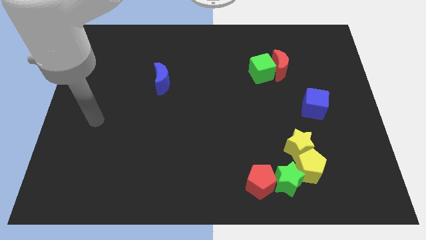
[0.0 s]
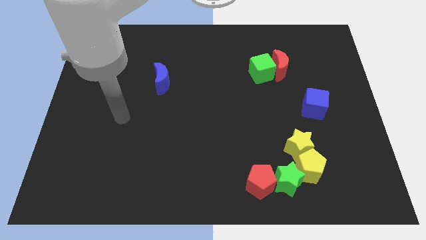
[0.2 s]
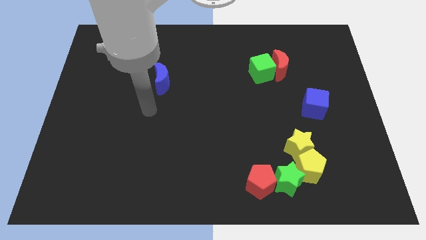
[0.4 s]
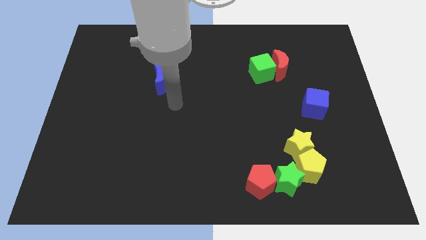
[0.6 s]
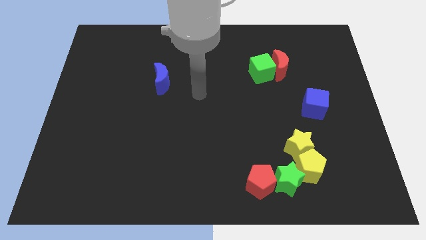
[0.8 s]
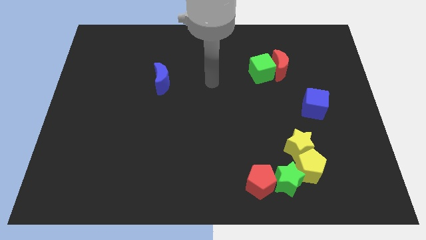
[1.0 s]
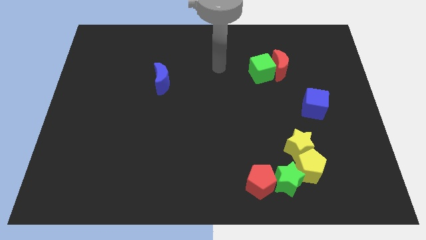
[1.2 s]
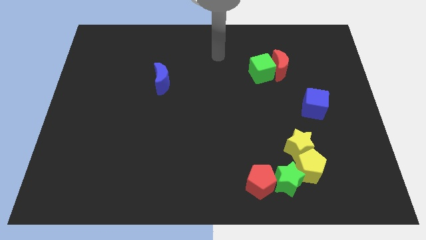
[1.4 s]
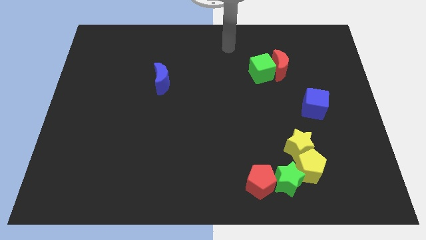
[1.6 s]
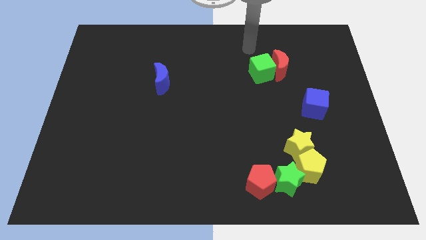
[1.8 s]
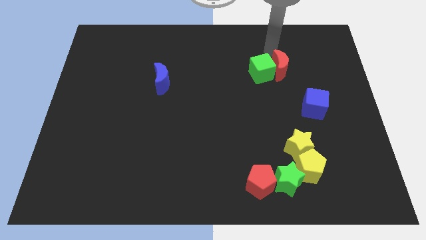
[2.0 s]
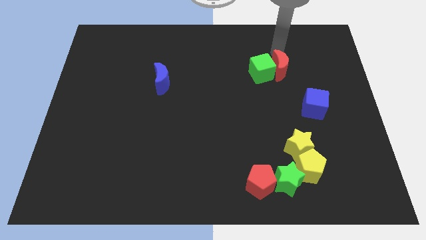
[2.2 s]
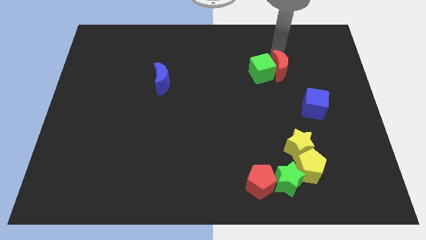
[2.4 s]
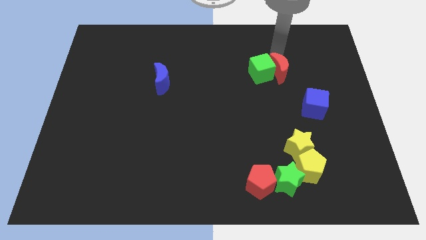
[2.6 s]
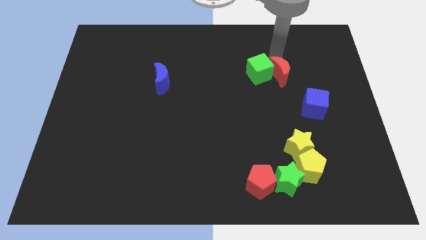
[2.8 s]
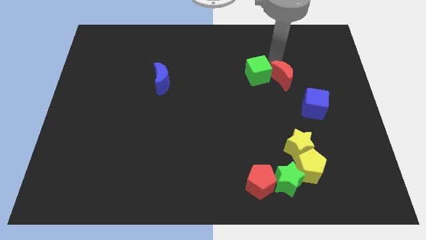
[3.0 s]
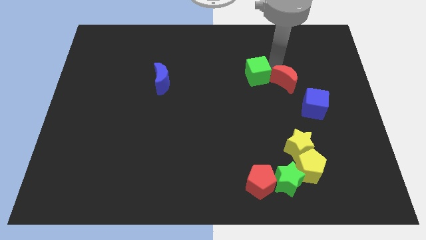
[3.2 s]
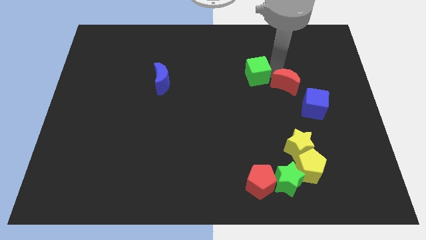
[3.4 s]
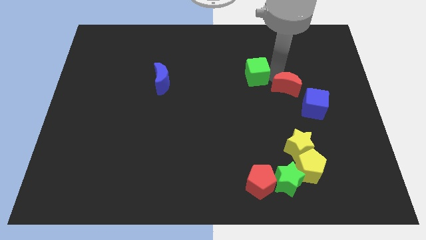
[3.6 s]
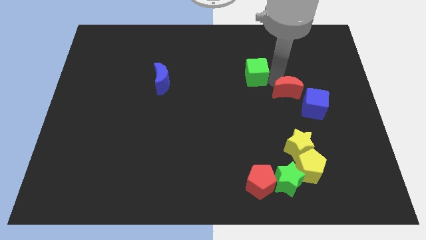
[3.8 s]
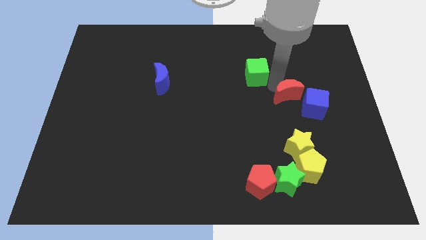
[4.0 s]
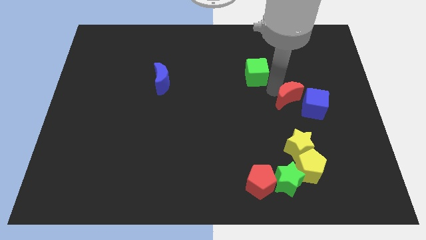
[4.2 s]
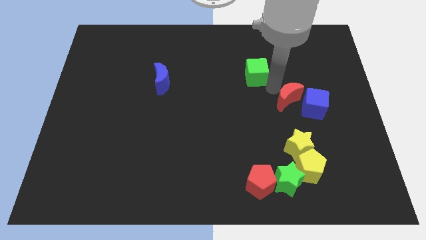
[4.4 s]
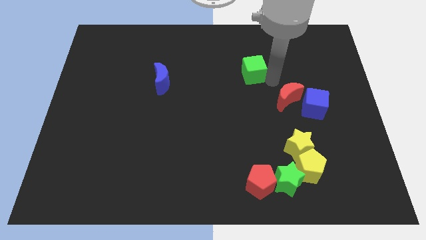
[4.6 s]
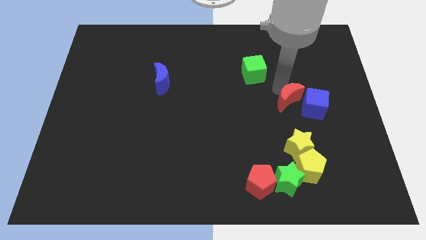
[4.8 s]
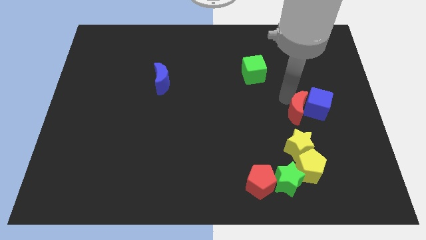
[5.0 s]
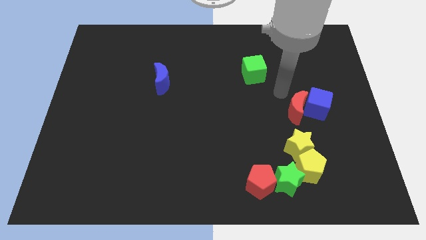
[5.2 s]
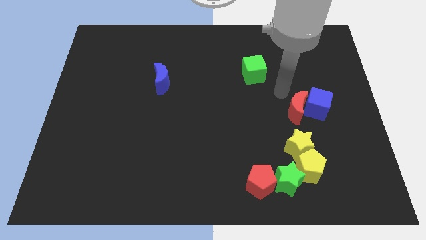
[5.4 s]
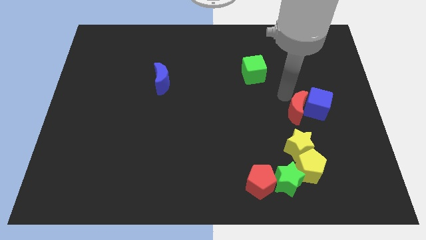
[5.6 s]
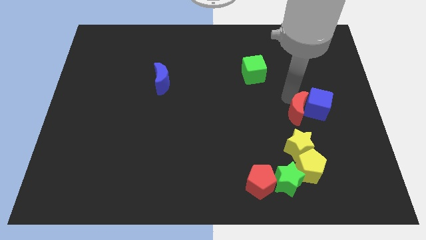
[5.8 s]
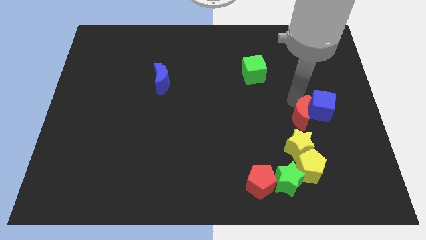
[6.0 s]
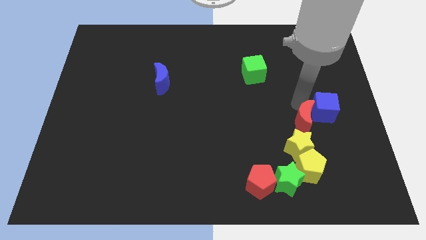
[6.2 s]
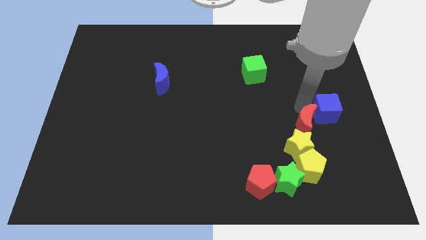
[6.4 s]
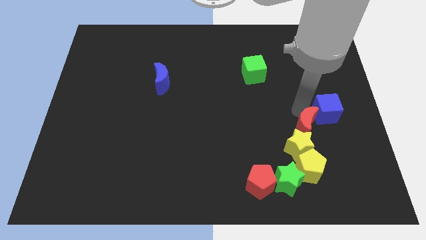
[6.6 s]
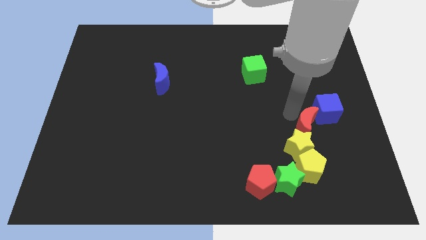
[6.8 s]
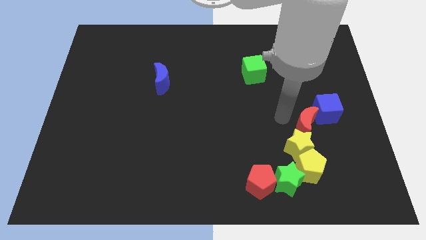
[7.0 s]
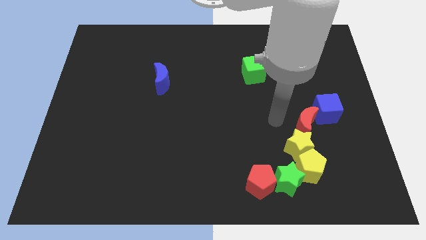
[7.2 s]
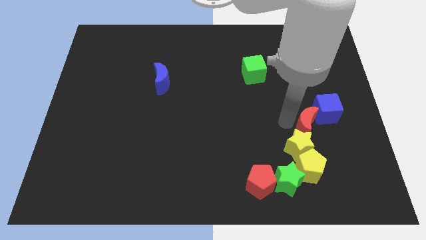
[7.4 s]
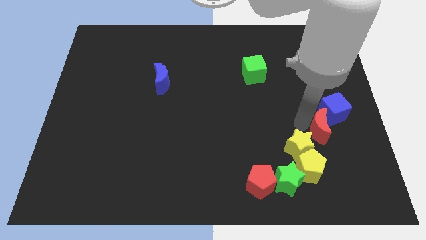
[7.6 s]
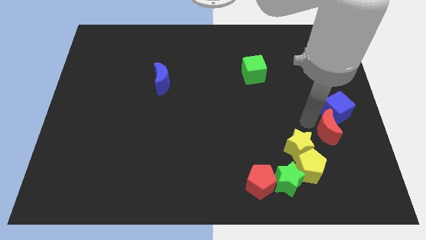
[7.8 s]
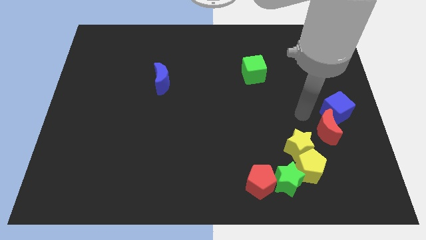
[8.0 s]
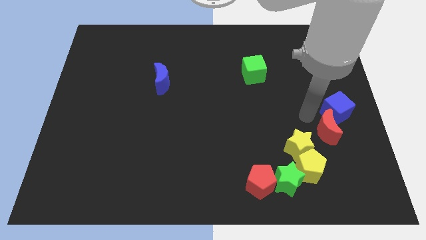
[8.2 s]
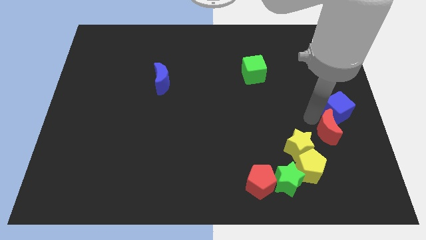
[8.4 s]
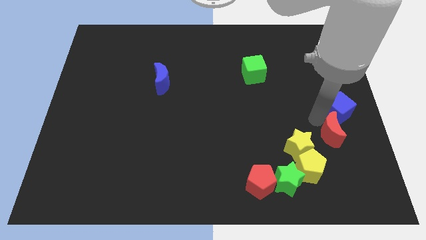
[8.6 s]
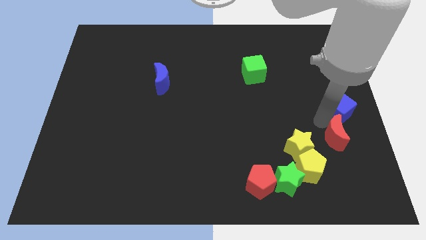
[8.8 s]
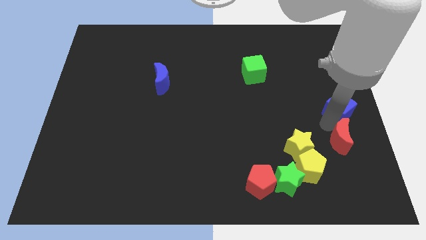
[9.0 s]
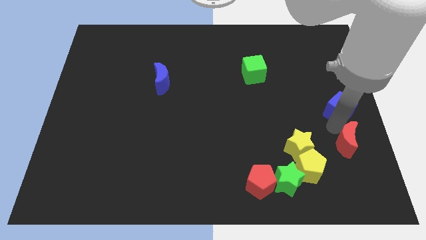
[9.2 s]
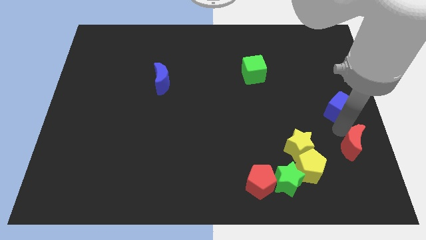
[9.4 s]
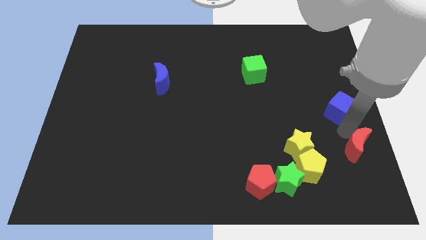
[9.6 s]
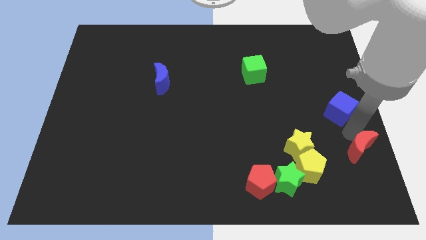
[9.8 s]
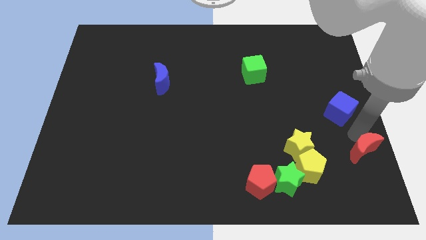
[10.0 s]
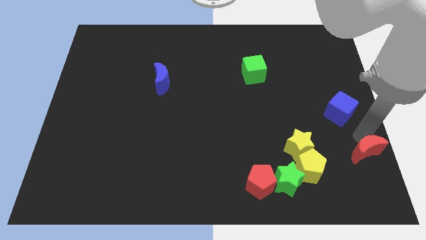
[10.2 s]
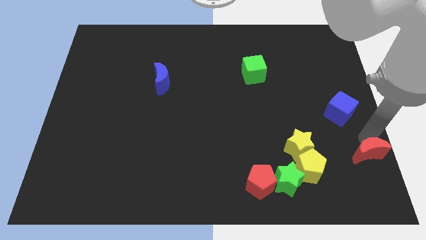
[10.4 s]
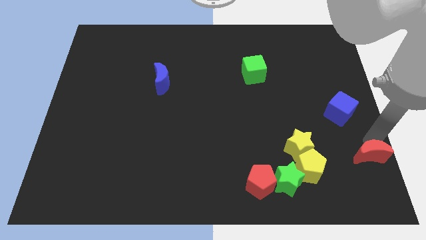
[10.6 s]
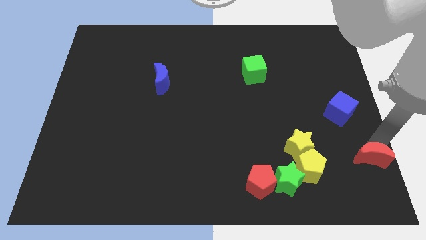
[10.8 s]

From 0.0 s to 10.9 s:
put the red moon to the bottom right of the board
